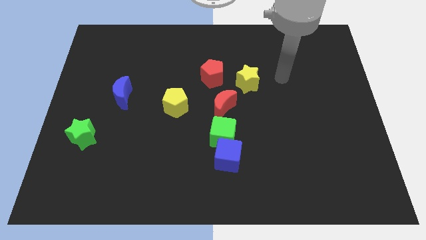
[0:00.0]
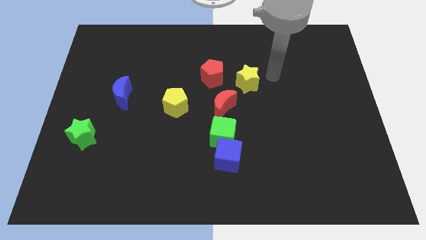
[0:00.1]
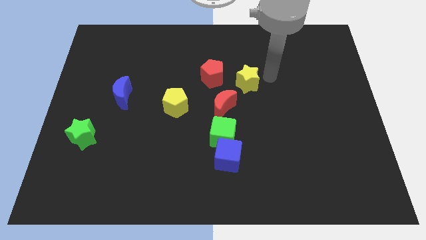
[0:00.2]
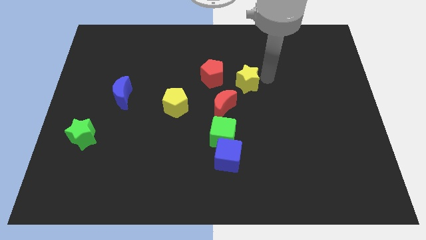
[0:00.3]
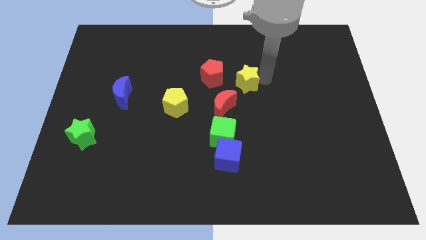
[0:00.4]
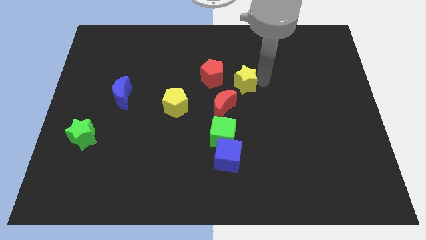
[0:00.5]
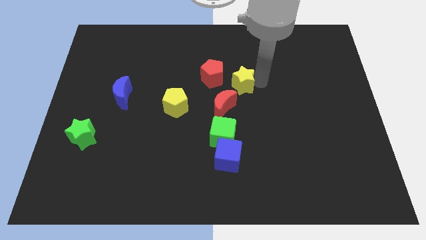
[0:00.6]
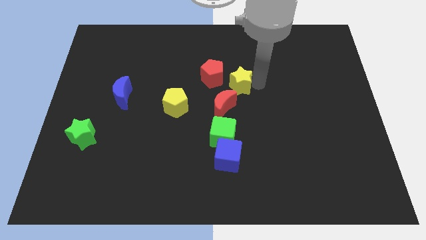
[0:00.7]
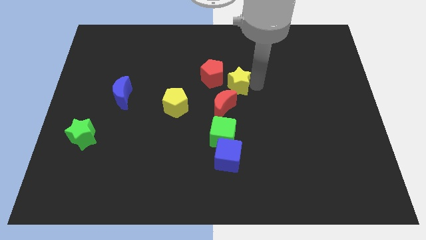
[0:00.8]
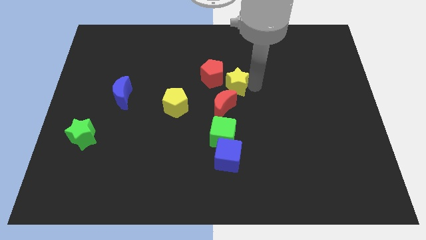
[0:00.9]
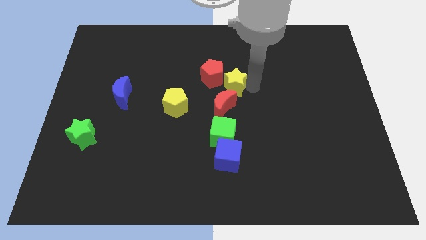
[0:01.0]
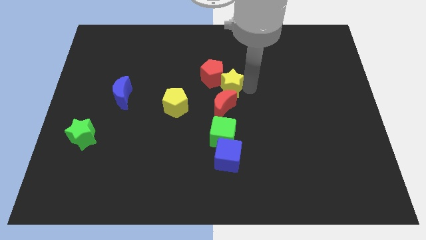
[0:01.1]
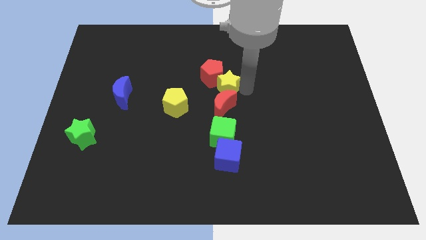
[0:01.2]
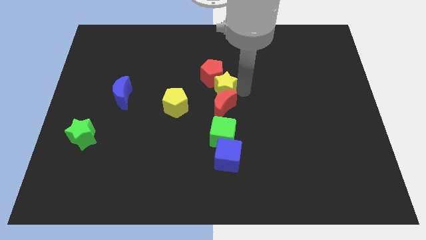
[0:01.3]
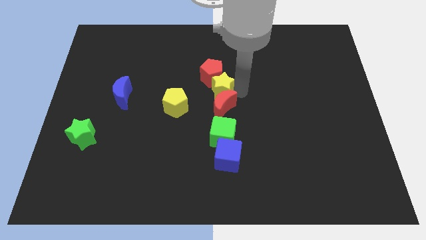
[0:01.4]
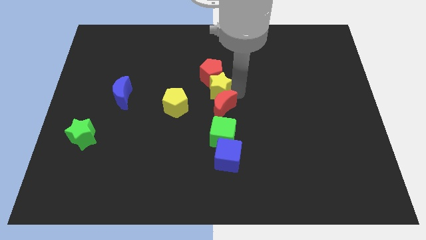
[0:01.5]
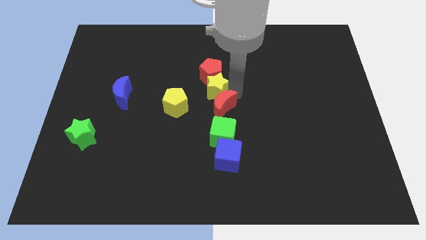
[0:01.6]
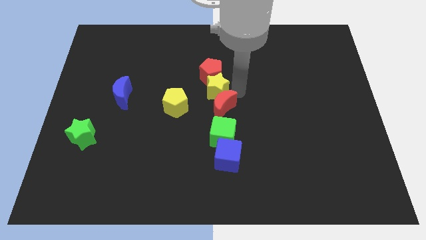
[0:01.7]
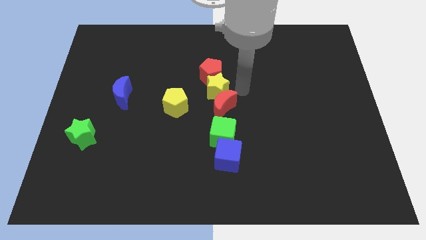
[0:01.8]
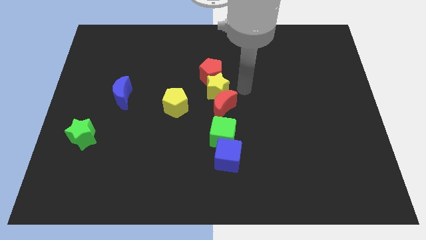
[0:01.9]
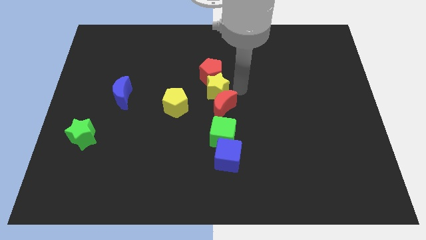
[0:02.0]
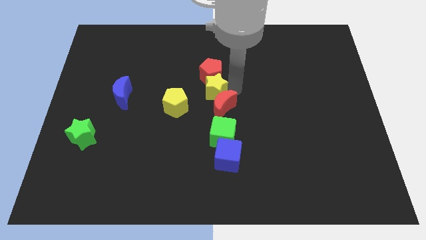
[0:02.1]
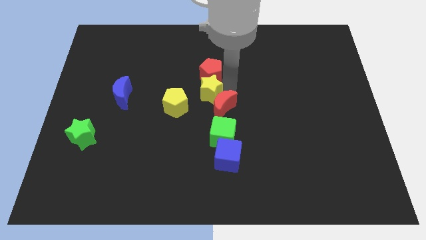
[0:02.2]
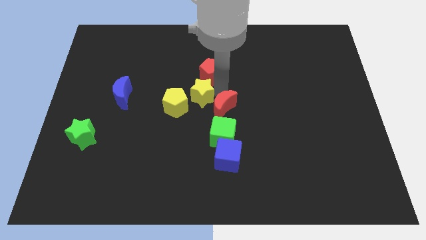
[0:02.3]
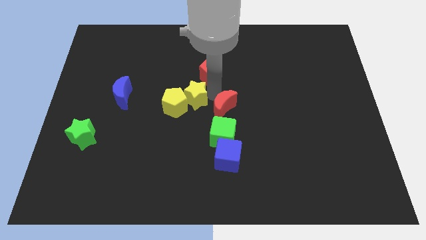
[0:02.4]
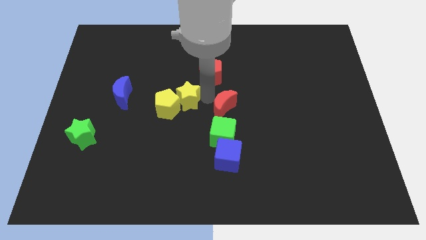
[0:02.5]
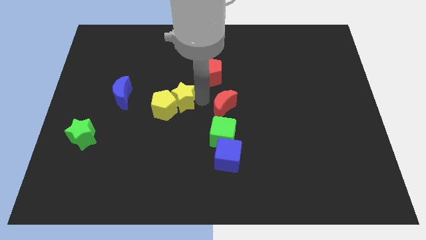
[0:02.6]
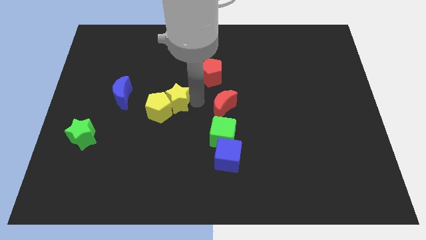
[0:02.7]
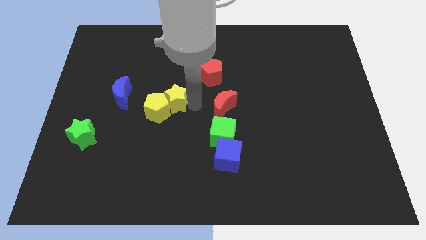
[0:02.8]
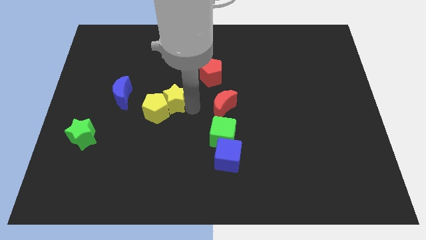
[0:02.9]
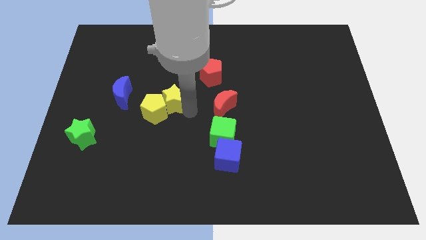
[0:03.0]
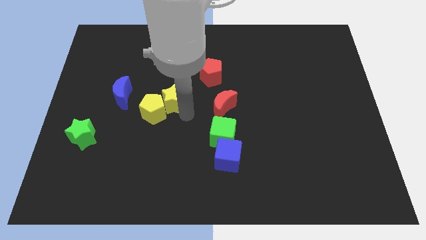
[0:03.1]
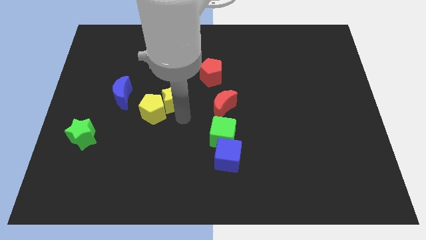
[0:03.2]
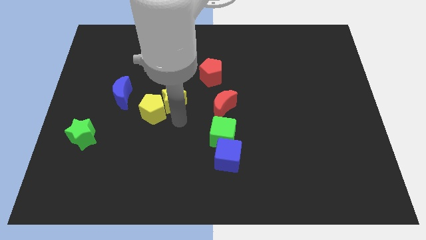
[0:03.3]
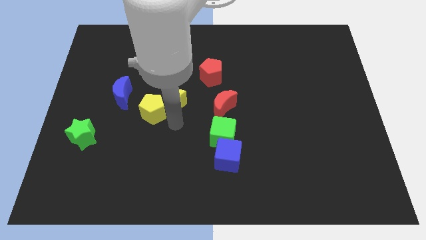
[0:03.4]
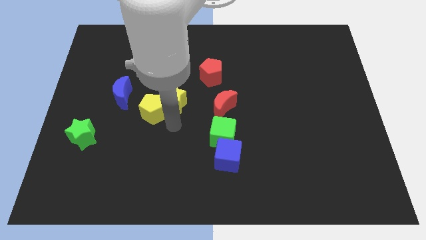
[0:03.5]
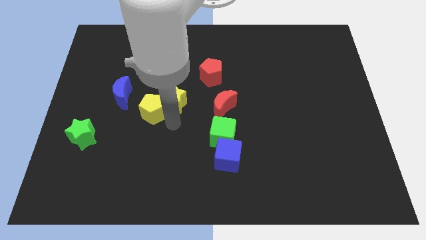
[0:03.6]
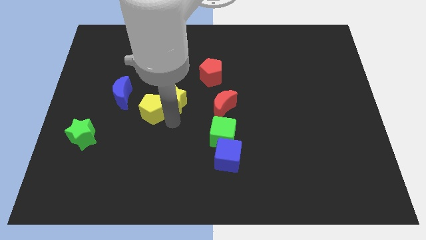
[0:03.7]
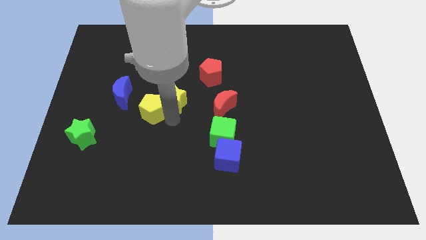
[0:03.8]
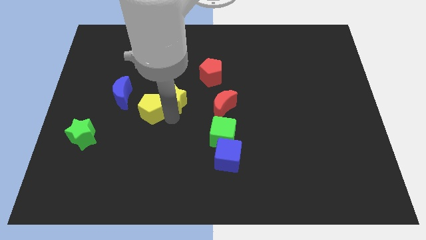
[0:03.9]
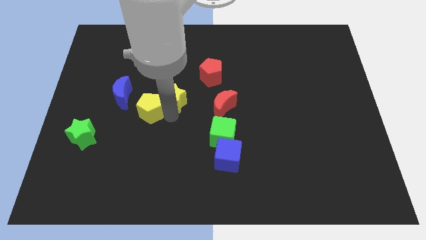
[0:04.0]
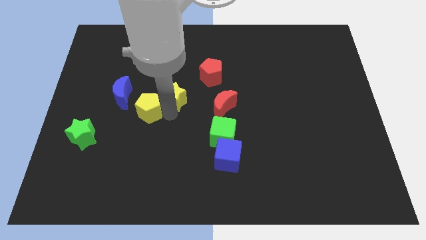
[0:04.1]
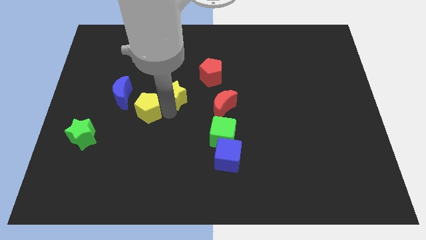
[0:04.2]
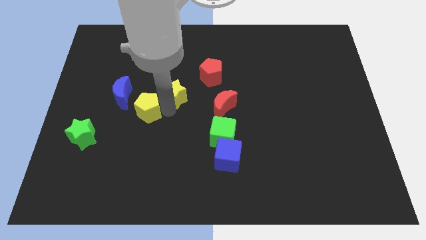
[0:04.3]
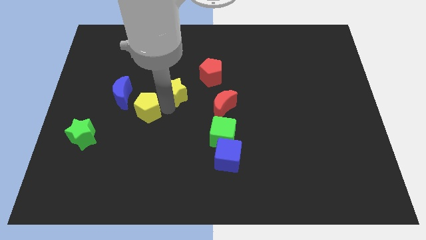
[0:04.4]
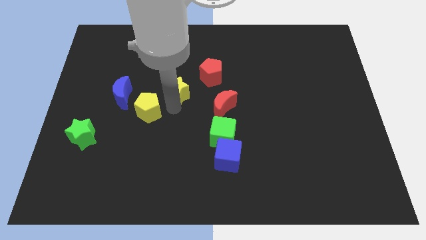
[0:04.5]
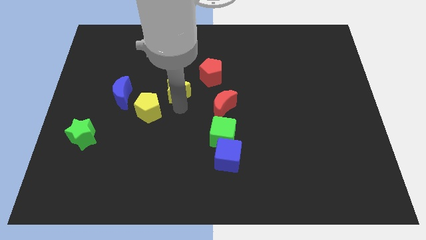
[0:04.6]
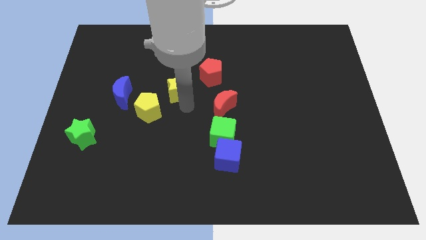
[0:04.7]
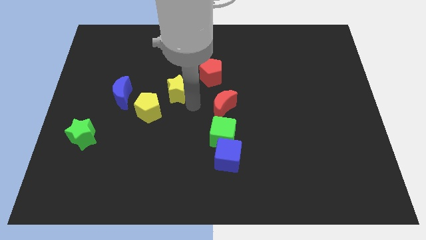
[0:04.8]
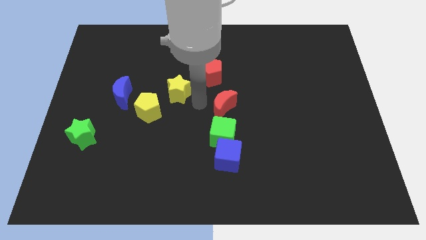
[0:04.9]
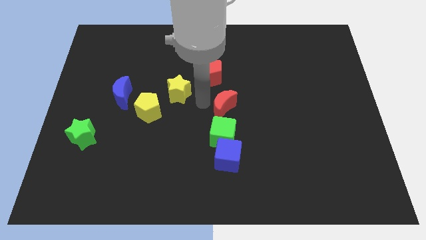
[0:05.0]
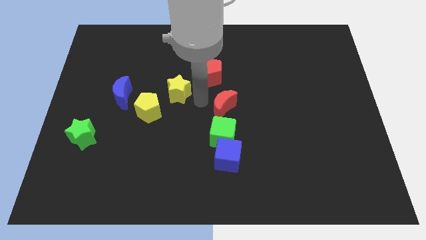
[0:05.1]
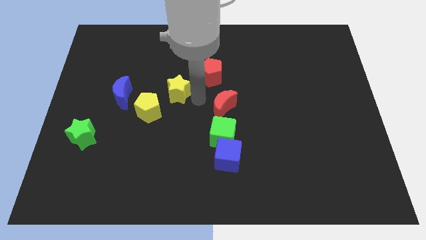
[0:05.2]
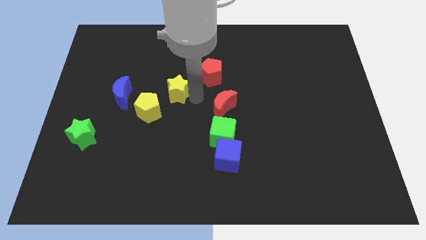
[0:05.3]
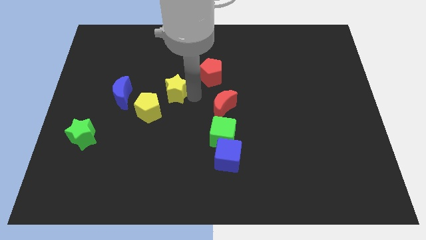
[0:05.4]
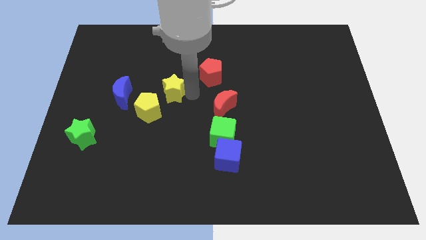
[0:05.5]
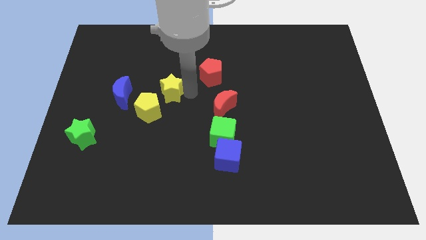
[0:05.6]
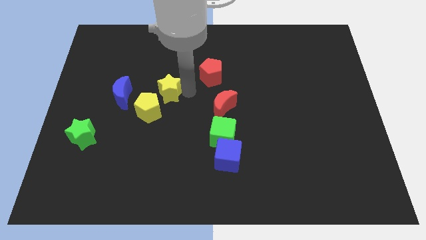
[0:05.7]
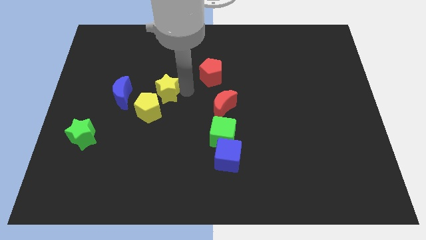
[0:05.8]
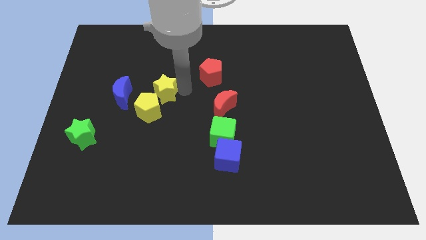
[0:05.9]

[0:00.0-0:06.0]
push the yellow star to the left

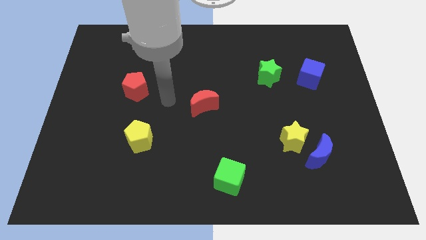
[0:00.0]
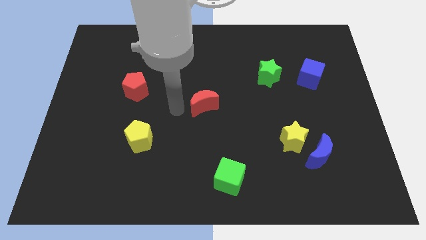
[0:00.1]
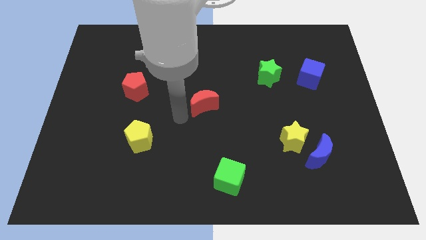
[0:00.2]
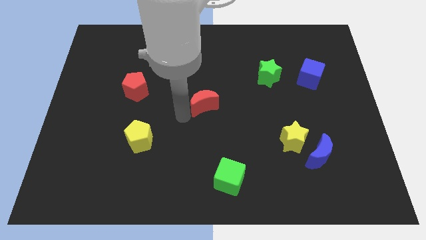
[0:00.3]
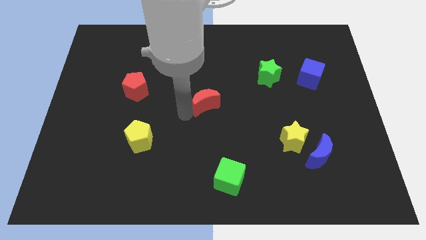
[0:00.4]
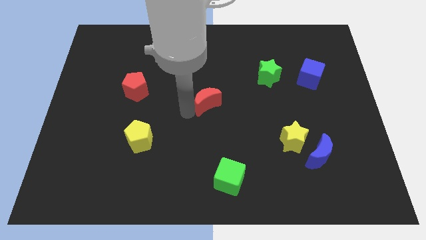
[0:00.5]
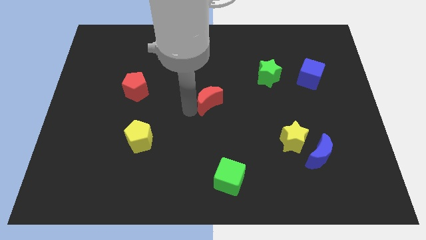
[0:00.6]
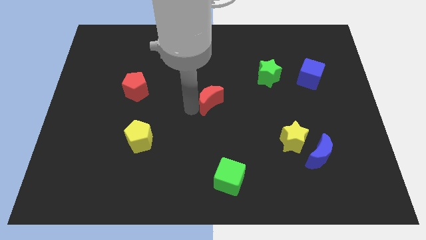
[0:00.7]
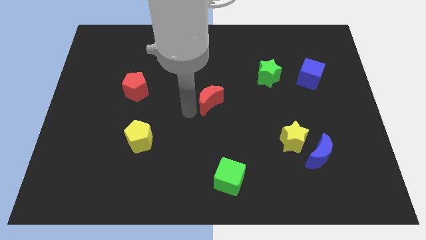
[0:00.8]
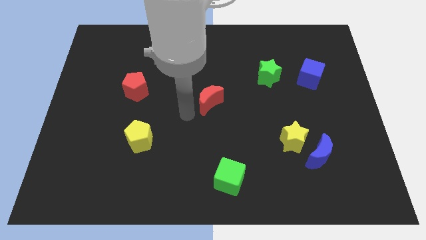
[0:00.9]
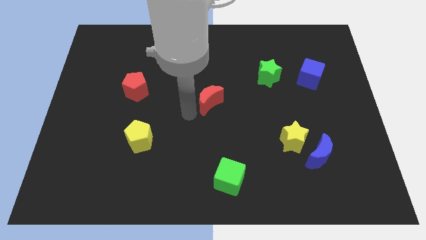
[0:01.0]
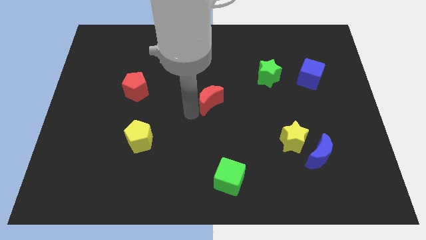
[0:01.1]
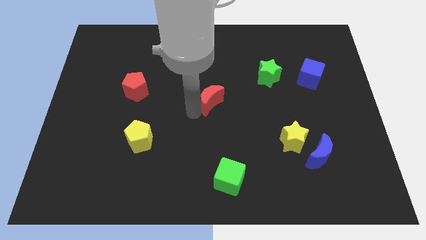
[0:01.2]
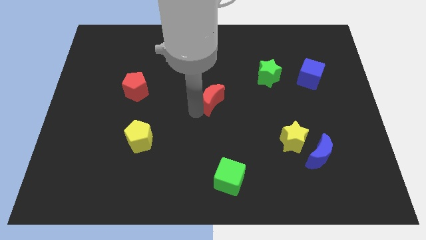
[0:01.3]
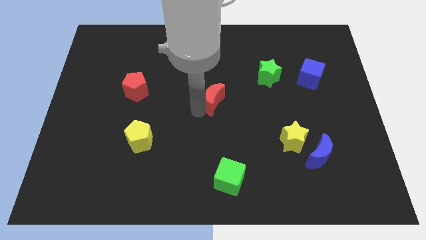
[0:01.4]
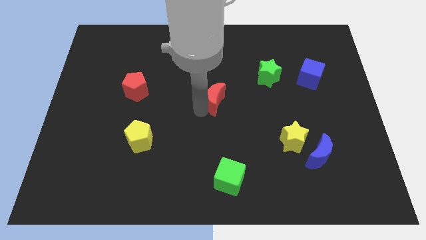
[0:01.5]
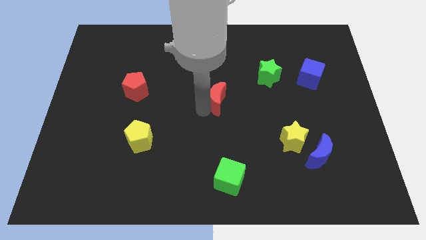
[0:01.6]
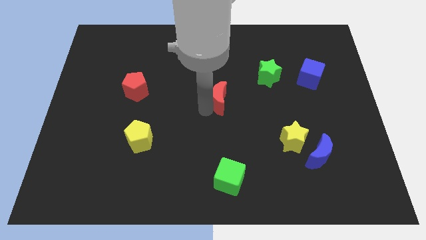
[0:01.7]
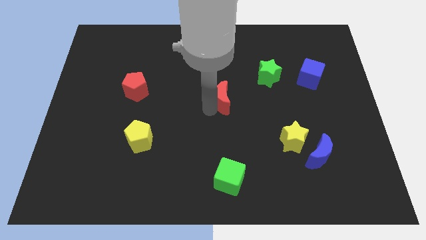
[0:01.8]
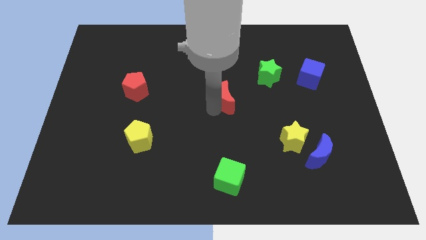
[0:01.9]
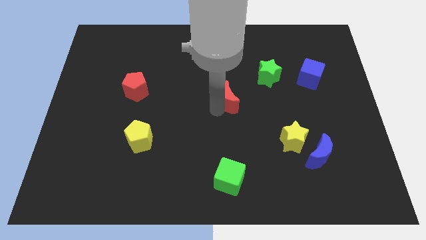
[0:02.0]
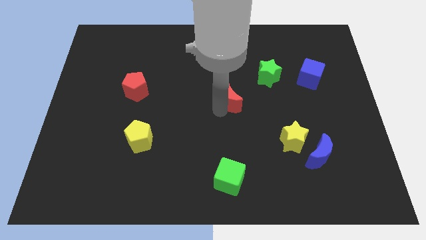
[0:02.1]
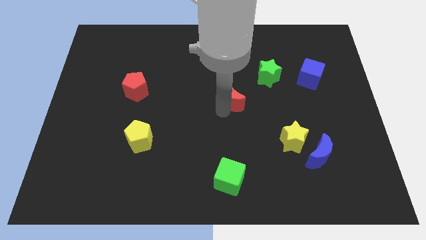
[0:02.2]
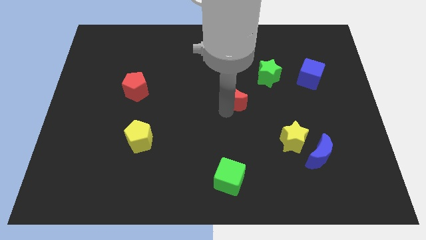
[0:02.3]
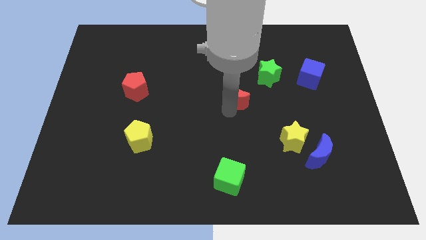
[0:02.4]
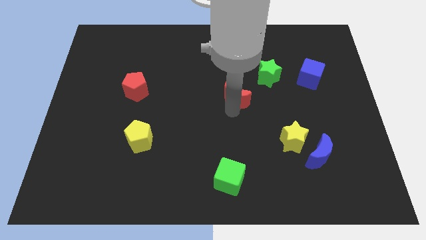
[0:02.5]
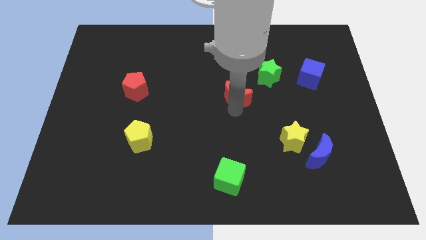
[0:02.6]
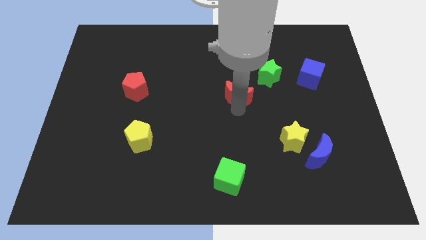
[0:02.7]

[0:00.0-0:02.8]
slightly push the red moon upwards and to the right
